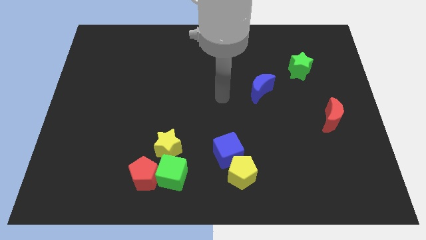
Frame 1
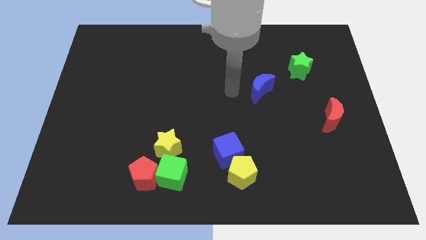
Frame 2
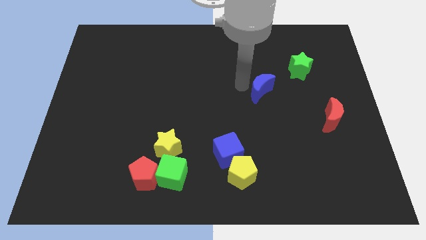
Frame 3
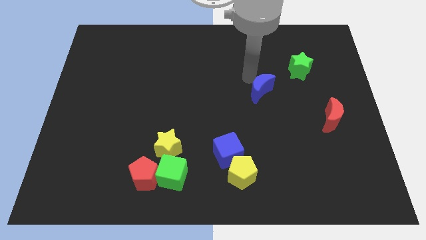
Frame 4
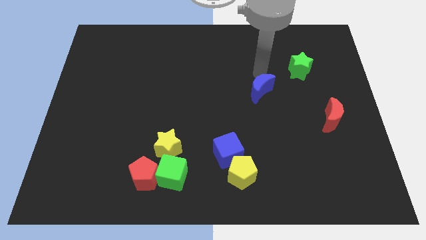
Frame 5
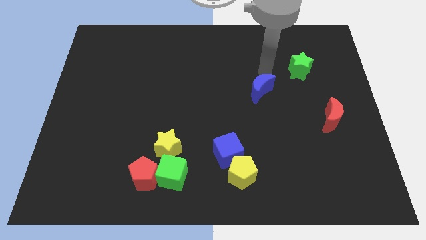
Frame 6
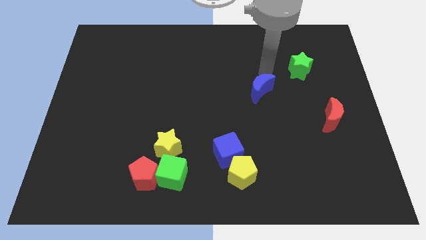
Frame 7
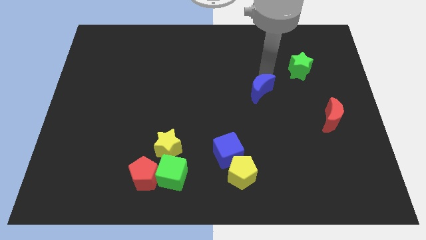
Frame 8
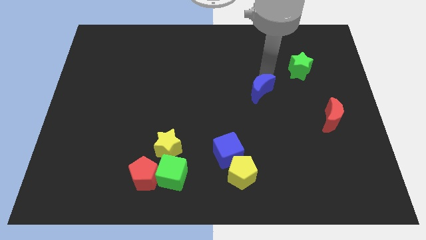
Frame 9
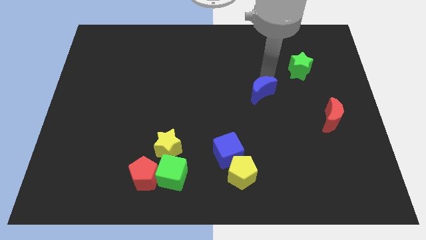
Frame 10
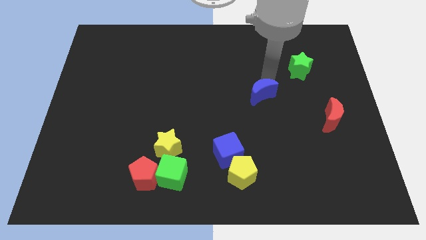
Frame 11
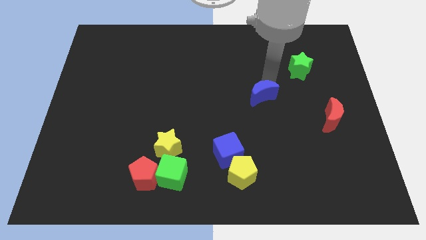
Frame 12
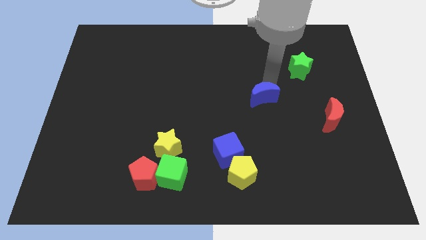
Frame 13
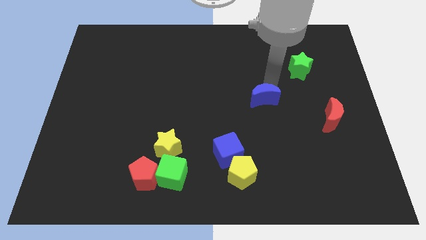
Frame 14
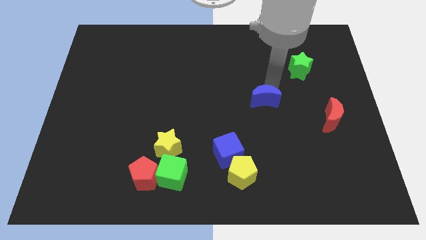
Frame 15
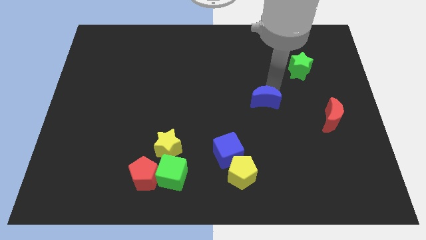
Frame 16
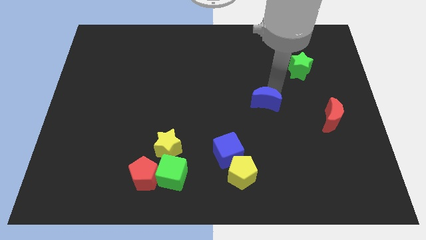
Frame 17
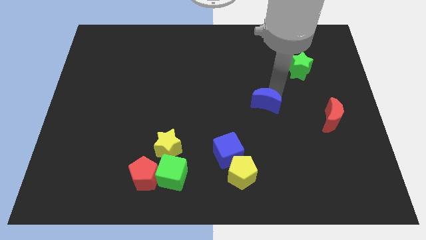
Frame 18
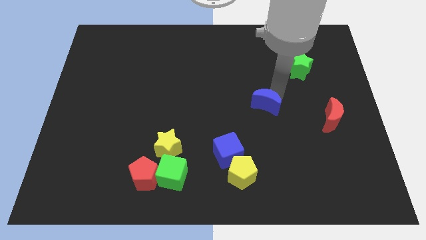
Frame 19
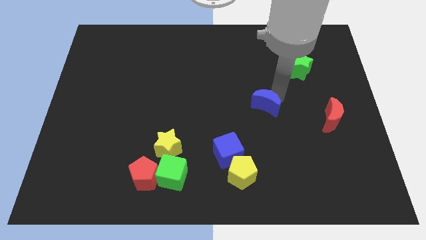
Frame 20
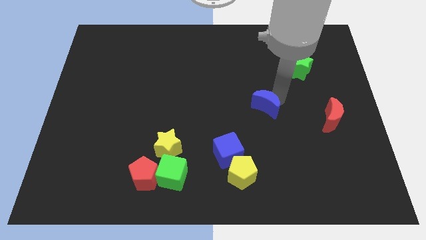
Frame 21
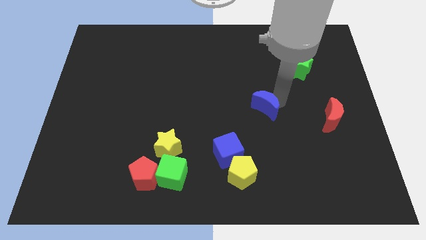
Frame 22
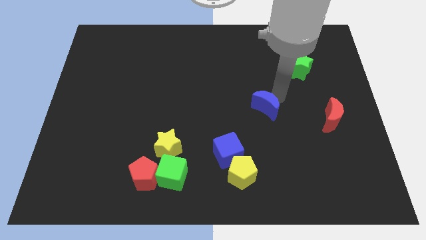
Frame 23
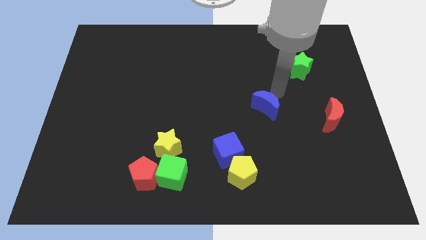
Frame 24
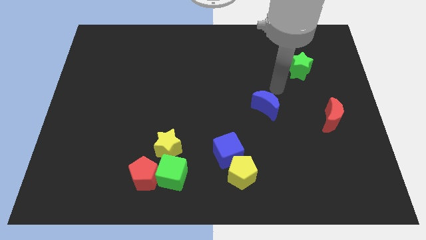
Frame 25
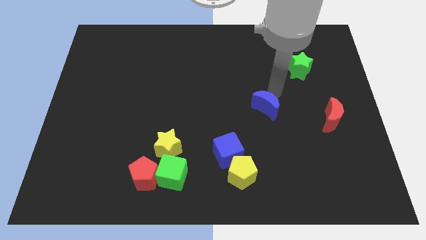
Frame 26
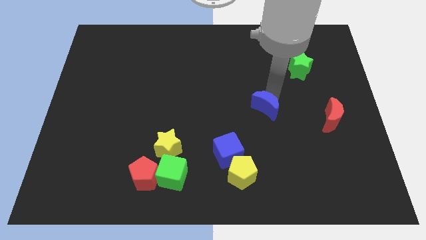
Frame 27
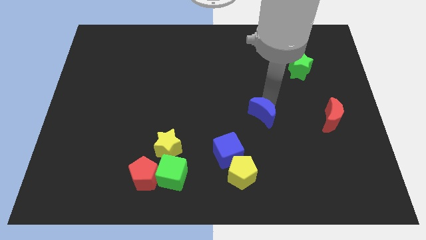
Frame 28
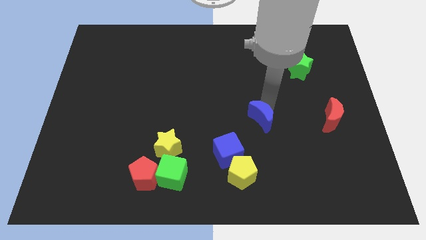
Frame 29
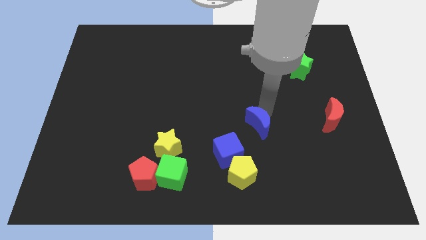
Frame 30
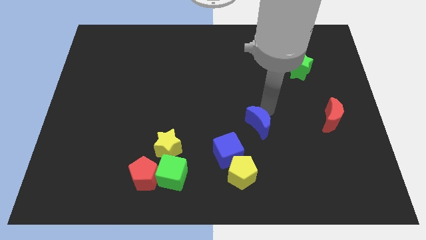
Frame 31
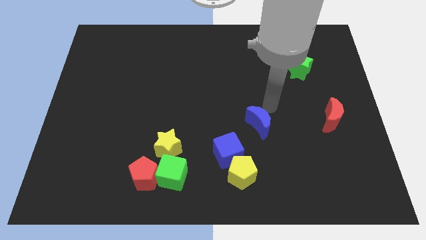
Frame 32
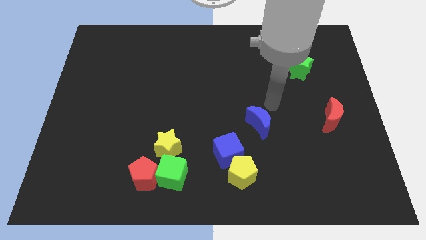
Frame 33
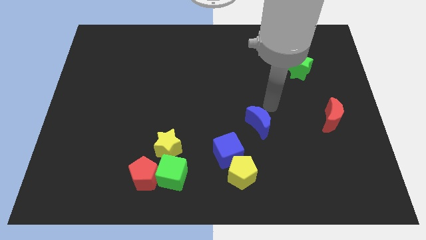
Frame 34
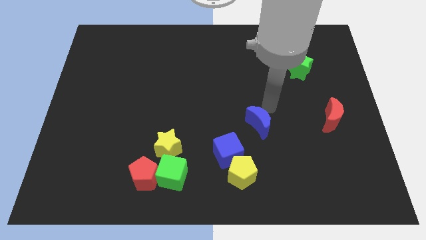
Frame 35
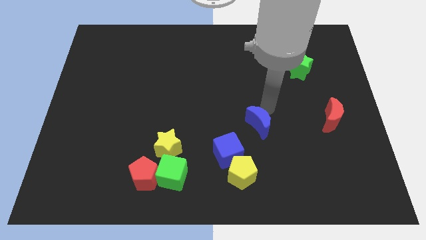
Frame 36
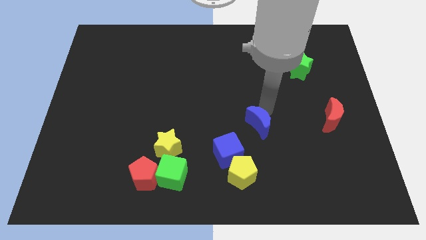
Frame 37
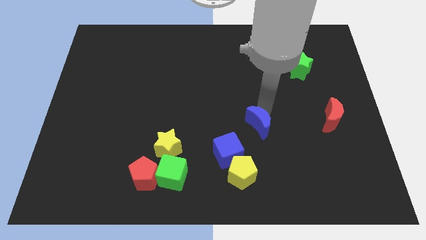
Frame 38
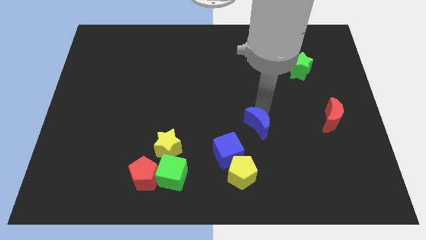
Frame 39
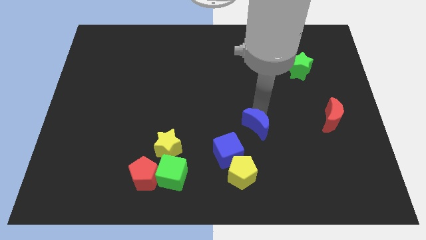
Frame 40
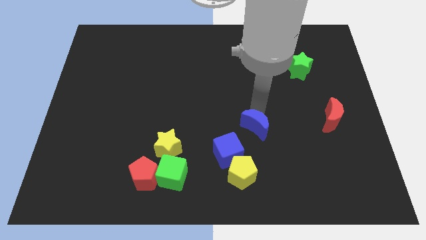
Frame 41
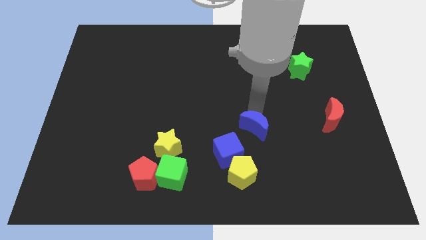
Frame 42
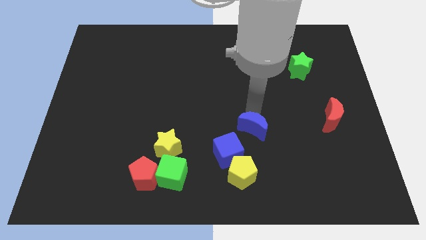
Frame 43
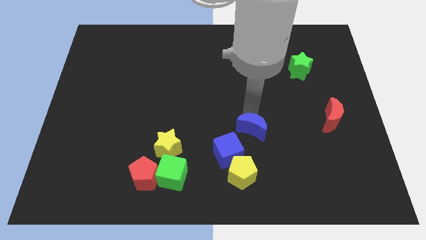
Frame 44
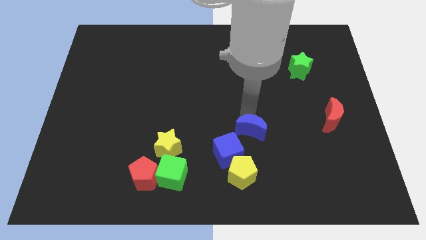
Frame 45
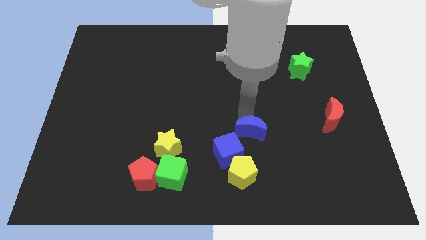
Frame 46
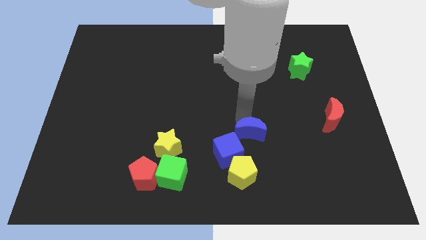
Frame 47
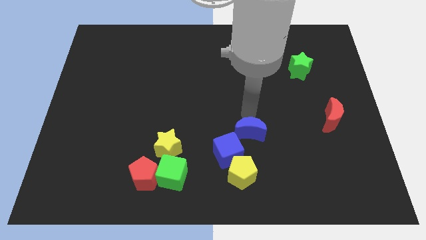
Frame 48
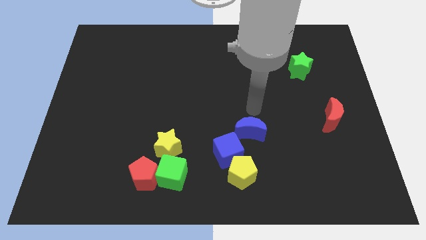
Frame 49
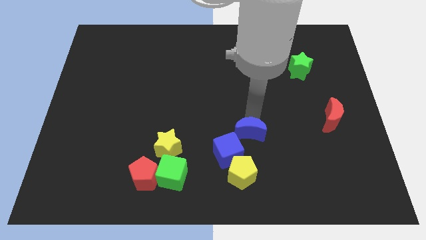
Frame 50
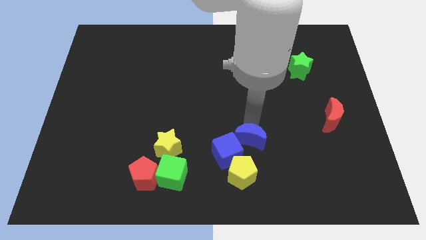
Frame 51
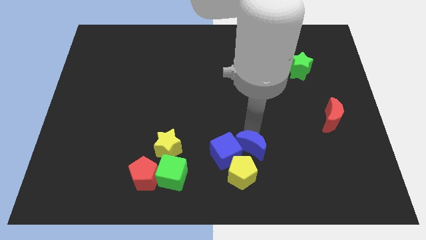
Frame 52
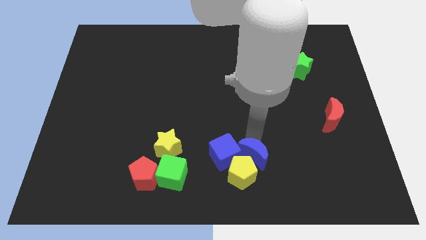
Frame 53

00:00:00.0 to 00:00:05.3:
move the blue moon next to the yellow pentagon

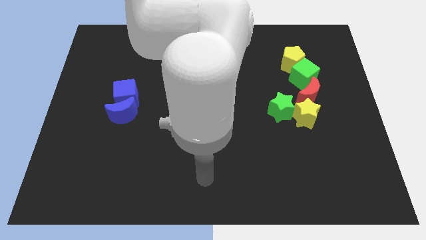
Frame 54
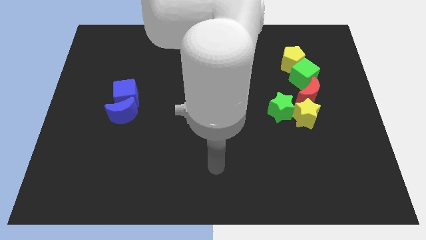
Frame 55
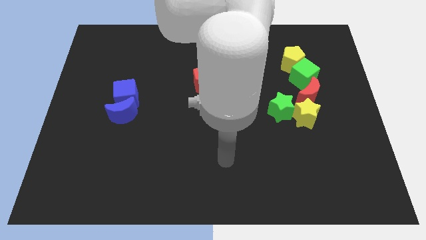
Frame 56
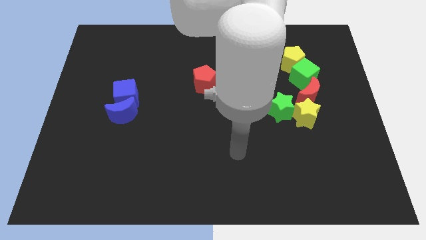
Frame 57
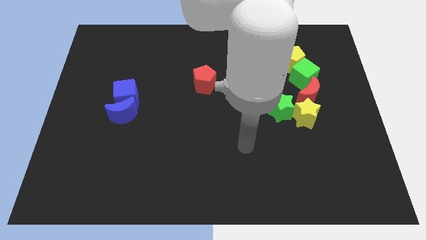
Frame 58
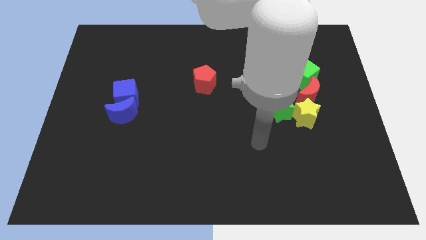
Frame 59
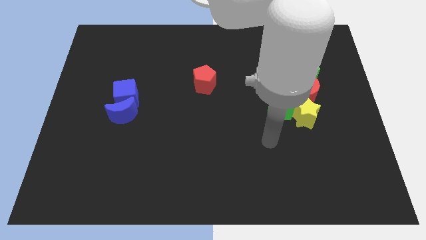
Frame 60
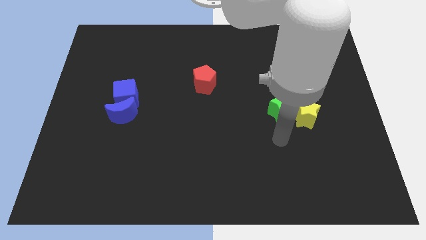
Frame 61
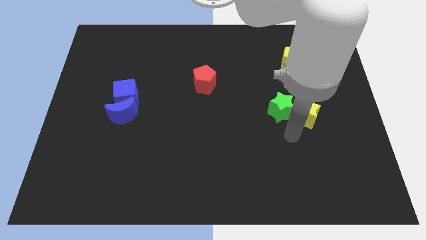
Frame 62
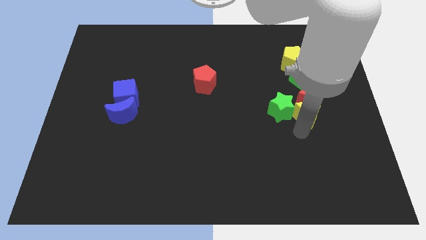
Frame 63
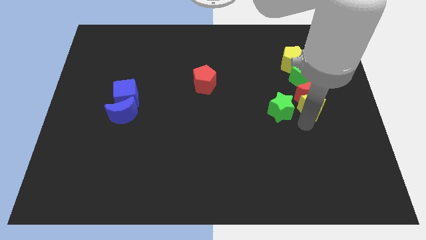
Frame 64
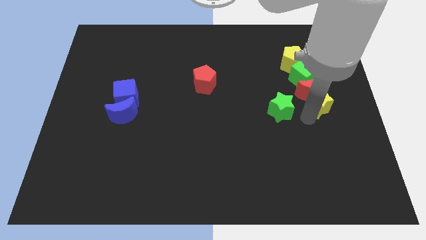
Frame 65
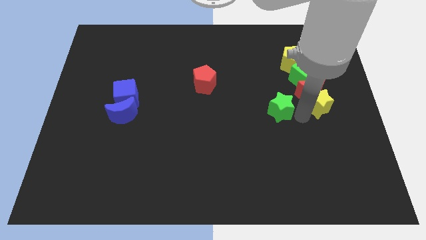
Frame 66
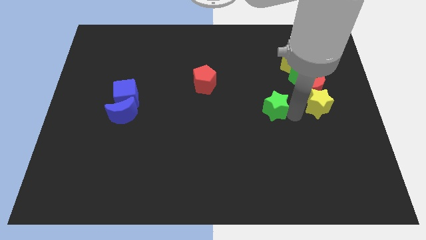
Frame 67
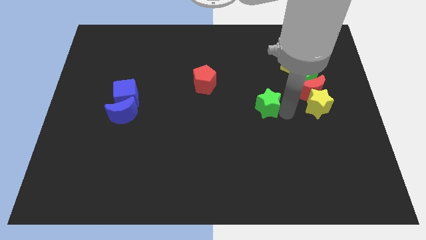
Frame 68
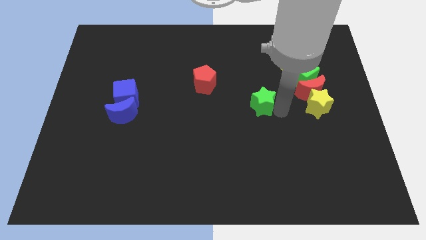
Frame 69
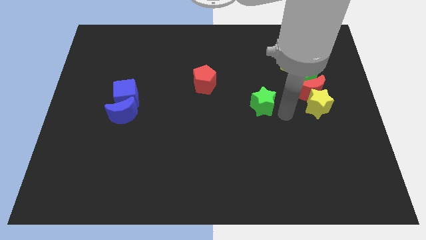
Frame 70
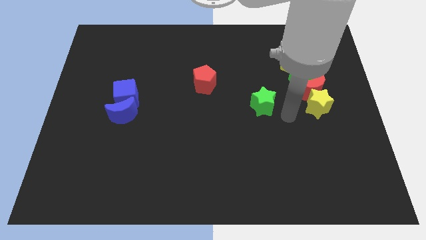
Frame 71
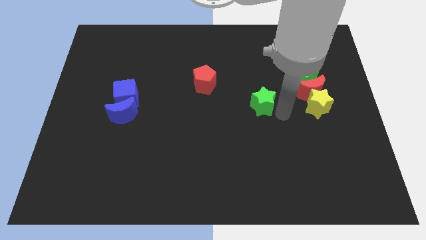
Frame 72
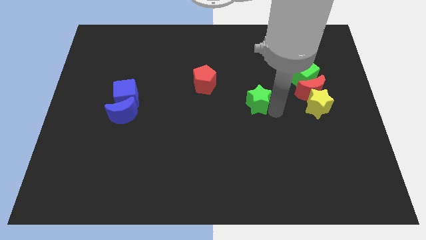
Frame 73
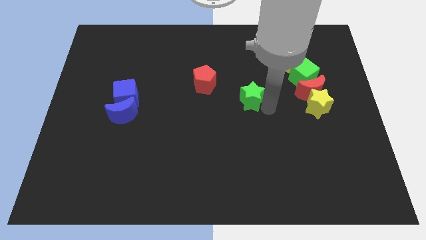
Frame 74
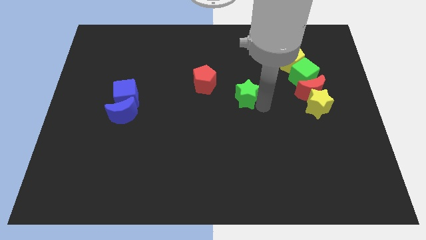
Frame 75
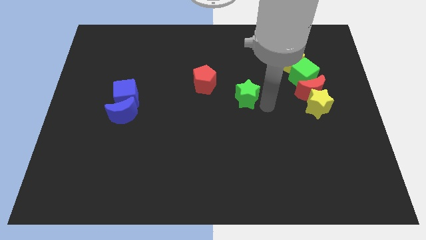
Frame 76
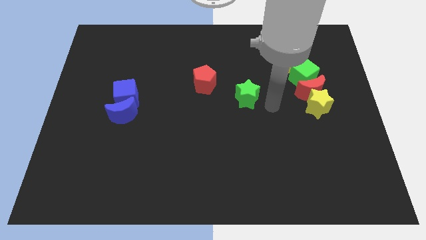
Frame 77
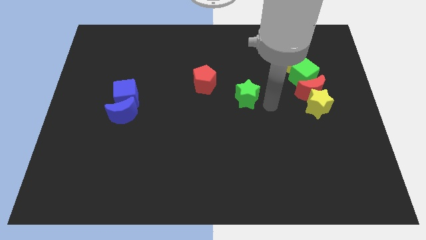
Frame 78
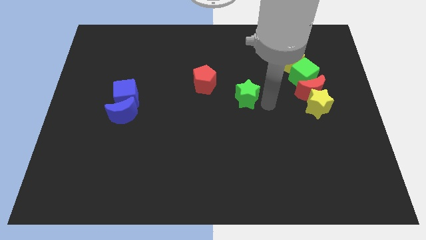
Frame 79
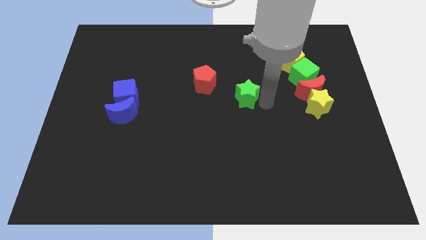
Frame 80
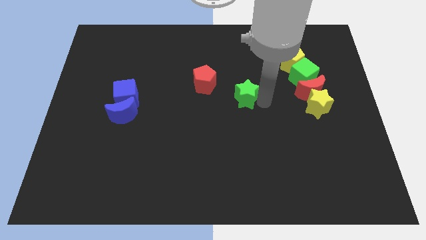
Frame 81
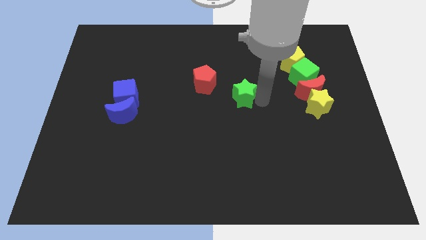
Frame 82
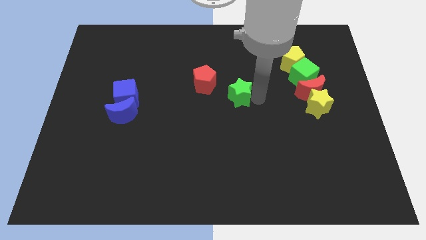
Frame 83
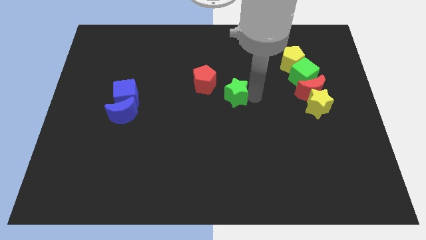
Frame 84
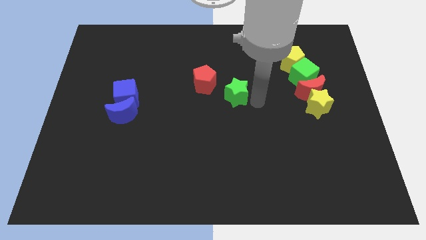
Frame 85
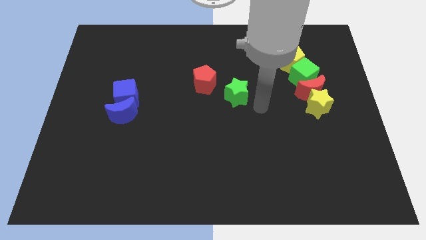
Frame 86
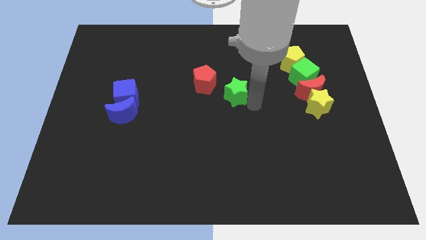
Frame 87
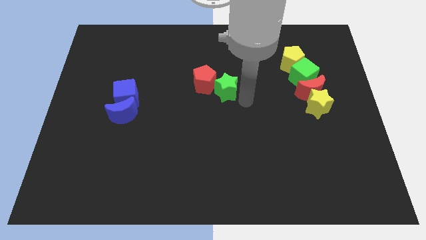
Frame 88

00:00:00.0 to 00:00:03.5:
push the green star to the red pentagon
